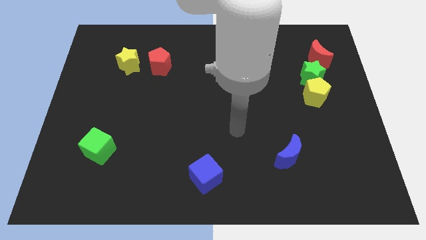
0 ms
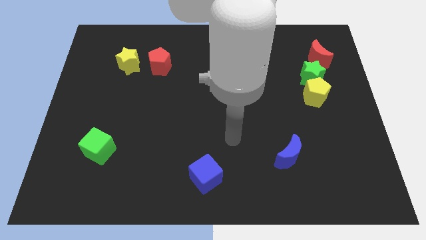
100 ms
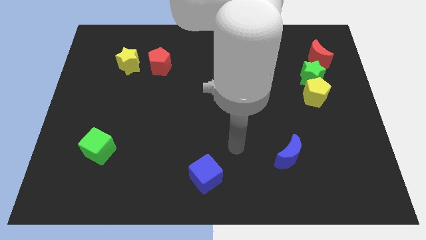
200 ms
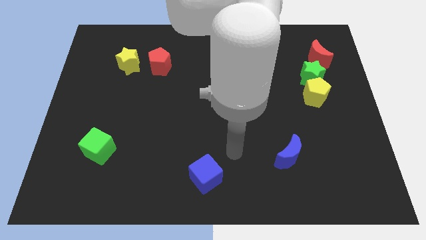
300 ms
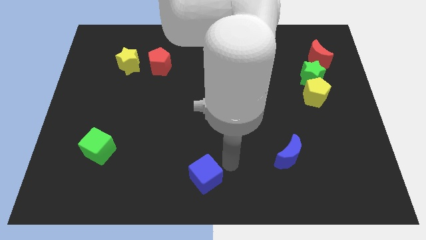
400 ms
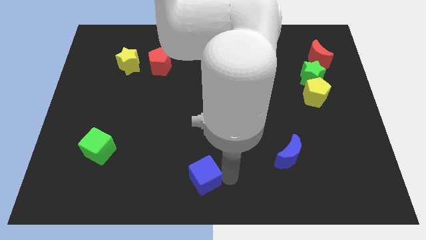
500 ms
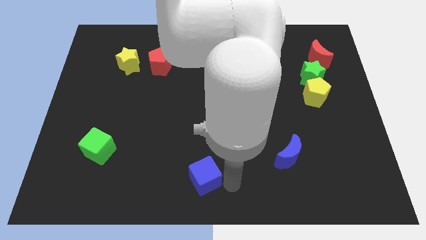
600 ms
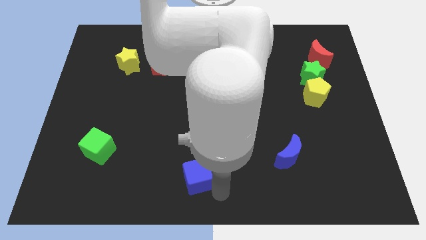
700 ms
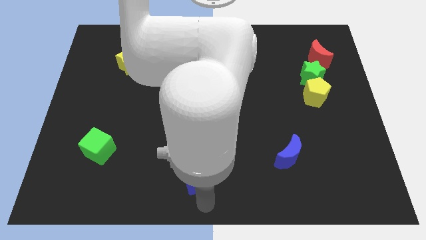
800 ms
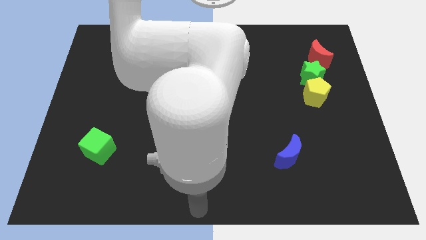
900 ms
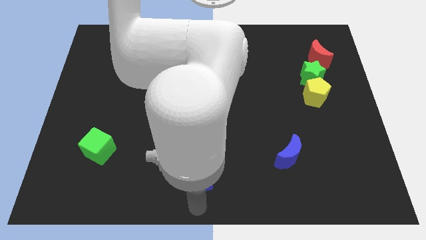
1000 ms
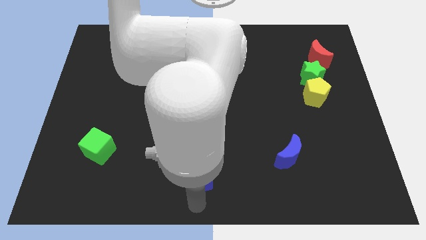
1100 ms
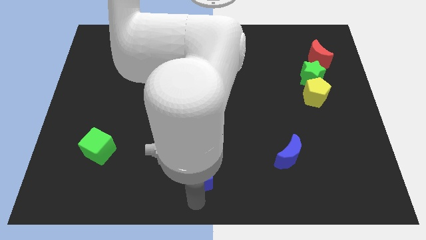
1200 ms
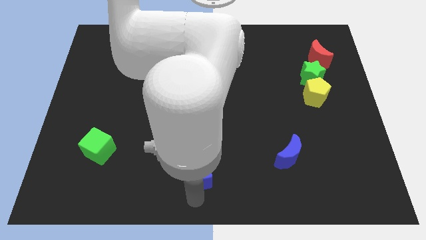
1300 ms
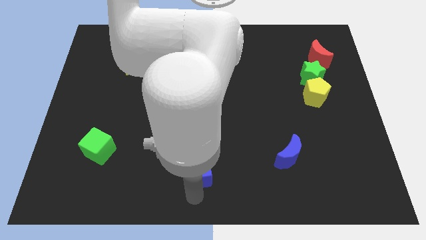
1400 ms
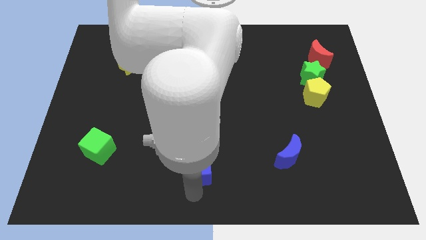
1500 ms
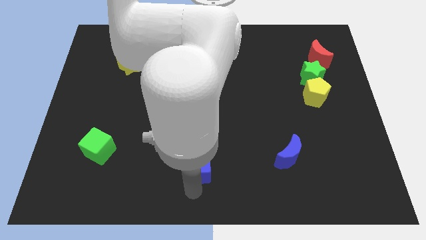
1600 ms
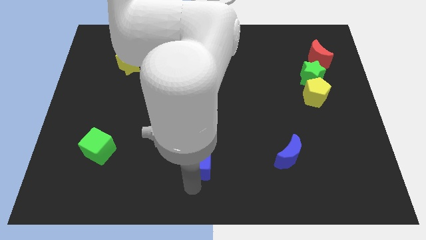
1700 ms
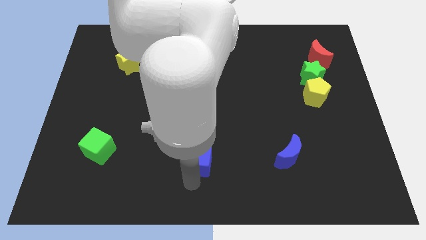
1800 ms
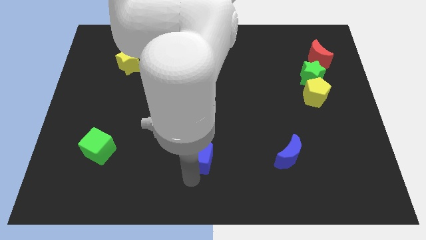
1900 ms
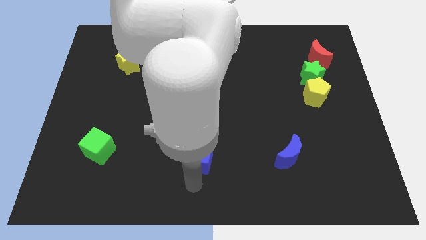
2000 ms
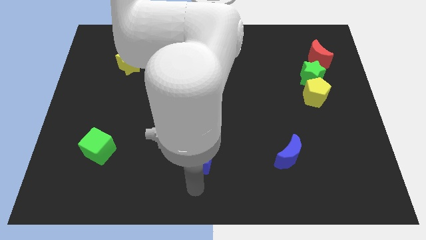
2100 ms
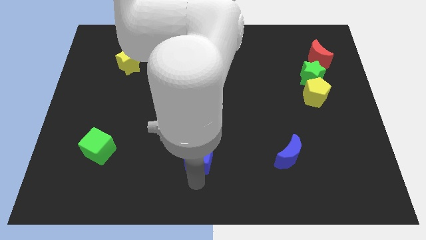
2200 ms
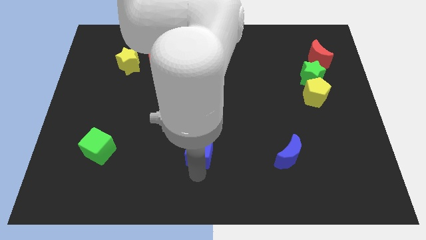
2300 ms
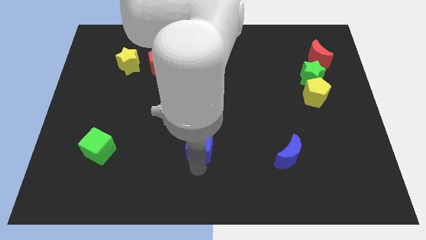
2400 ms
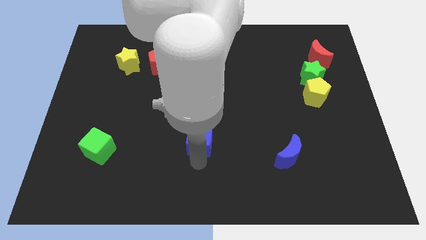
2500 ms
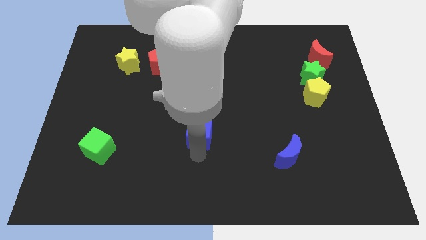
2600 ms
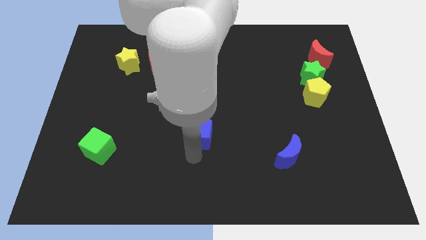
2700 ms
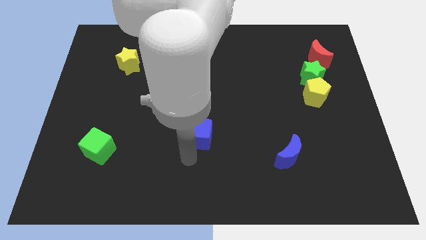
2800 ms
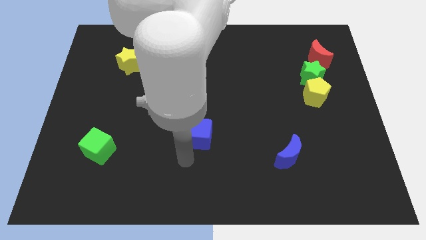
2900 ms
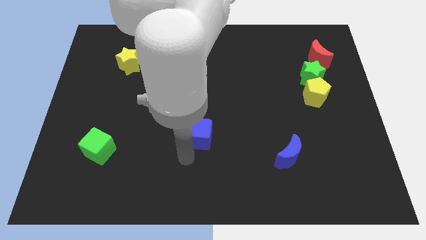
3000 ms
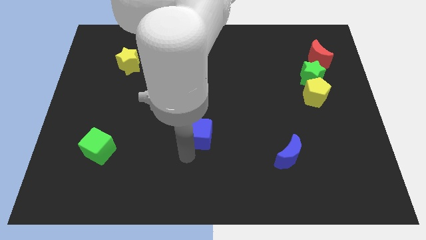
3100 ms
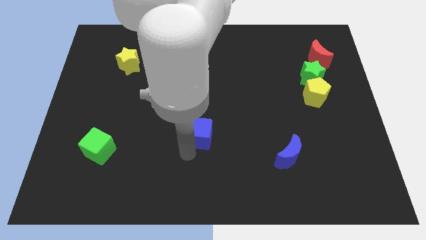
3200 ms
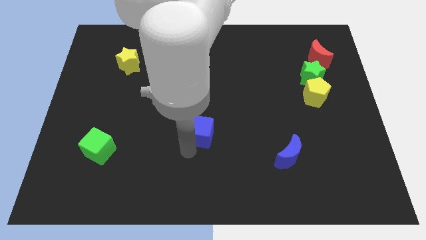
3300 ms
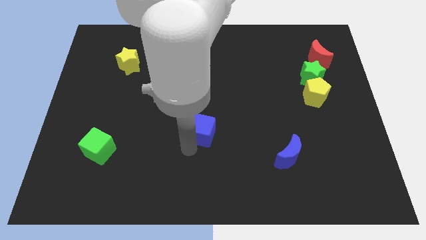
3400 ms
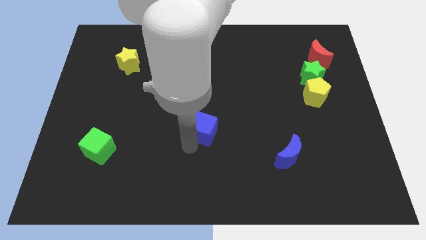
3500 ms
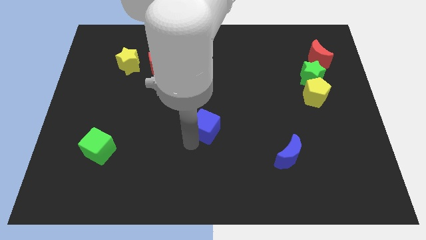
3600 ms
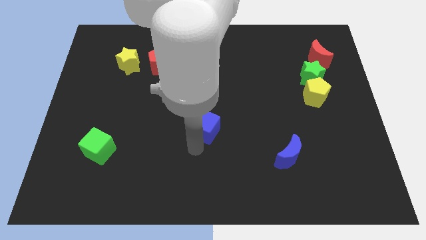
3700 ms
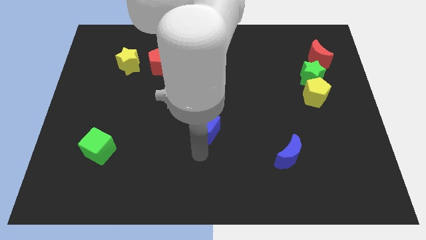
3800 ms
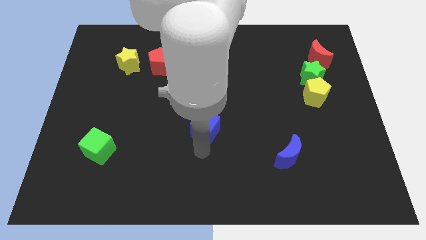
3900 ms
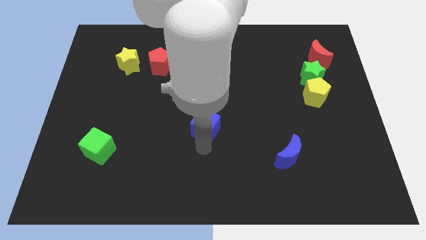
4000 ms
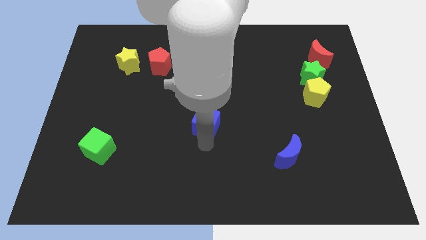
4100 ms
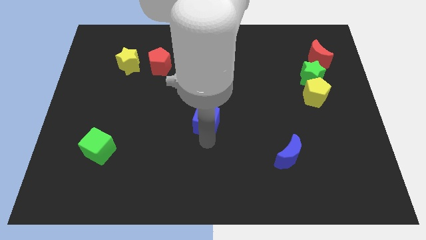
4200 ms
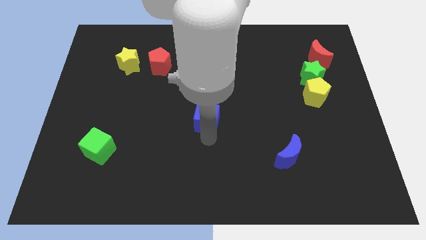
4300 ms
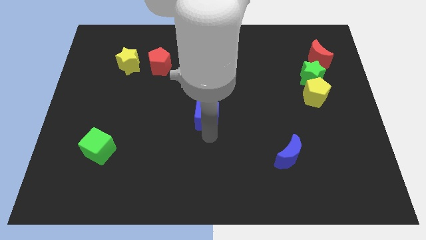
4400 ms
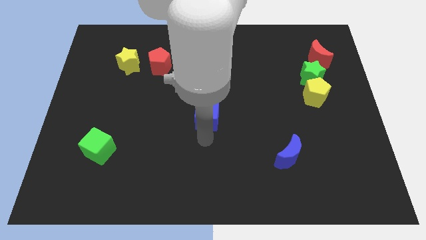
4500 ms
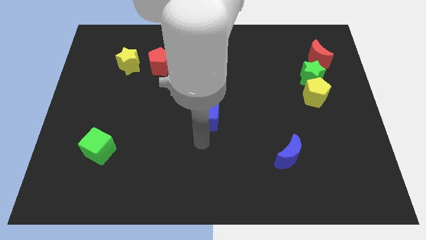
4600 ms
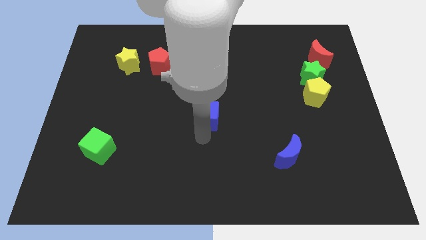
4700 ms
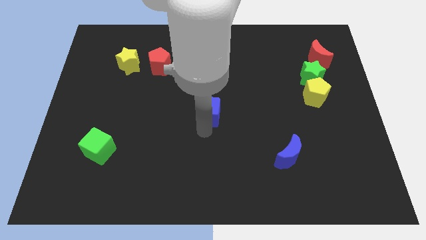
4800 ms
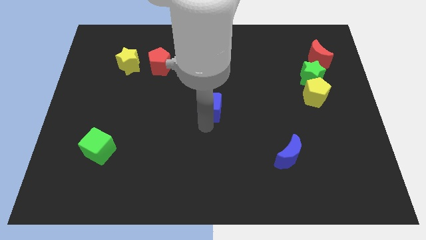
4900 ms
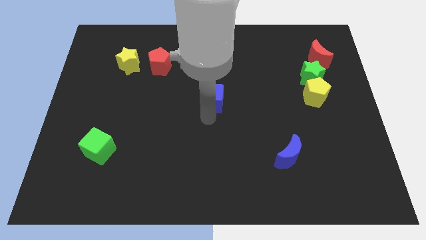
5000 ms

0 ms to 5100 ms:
slide the blue cube up

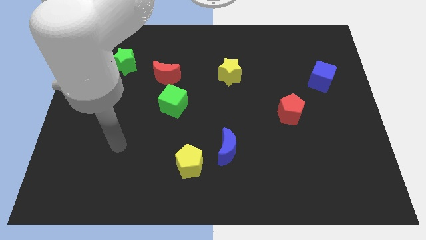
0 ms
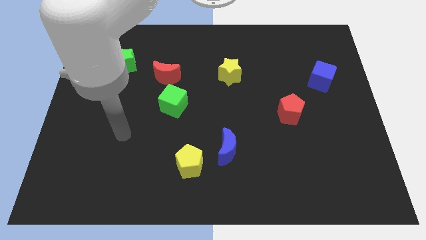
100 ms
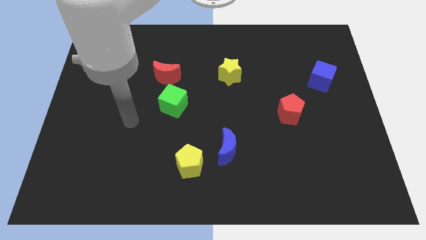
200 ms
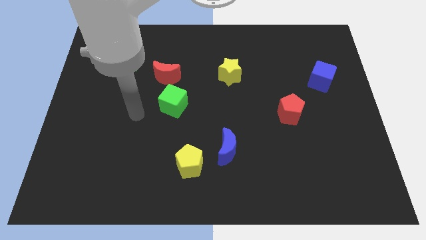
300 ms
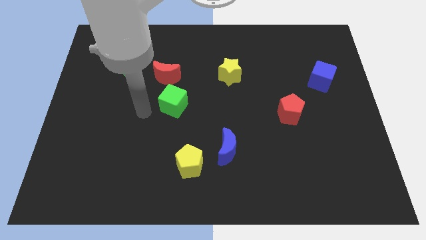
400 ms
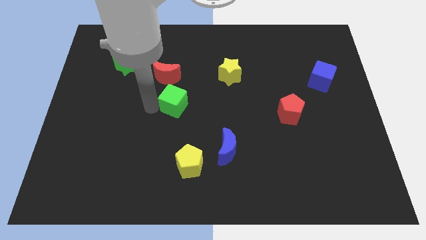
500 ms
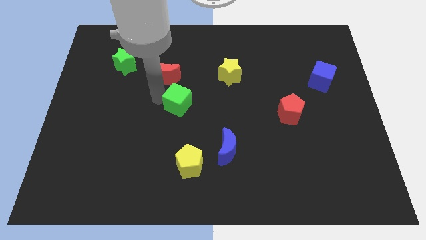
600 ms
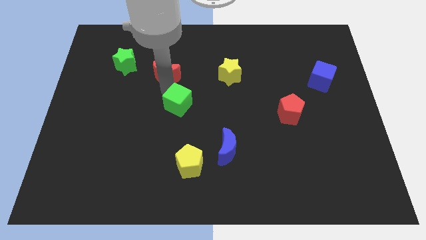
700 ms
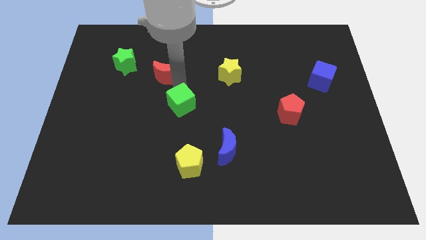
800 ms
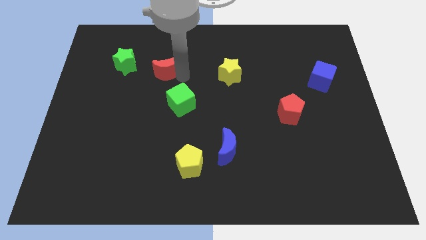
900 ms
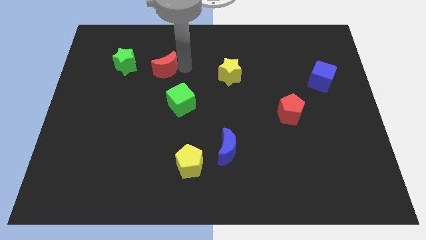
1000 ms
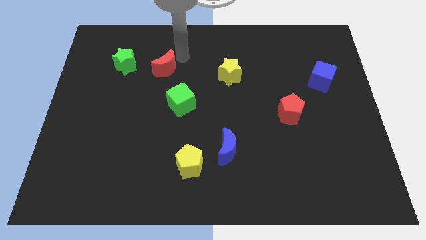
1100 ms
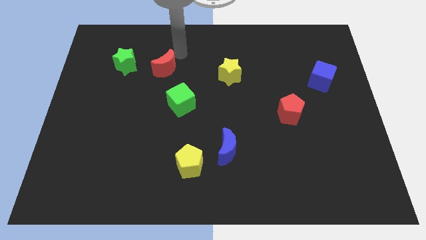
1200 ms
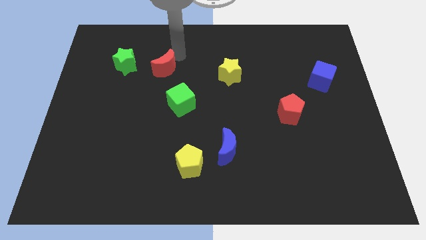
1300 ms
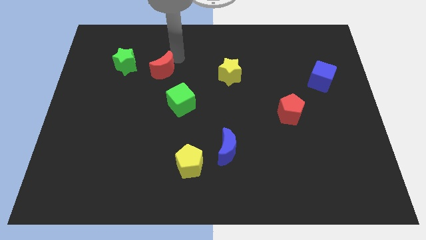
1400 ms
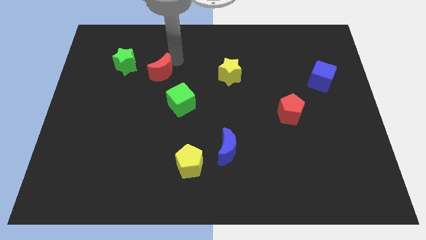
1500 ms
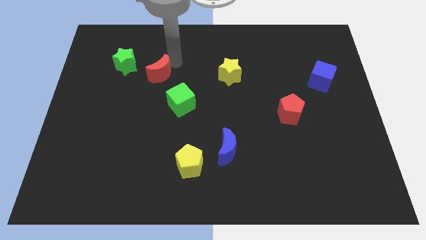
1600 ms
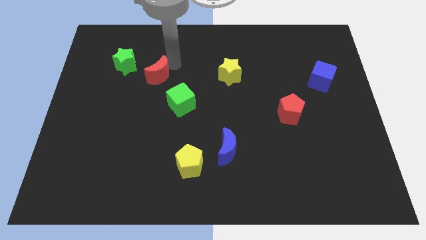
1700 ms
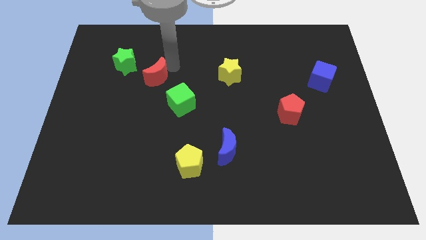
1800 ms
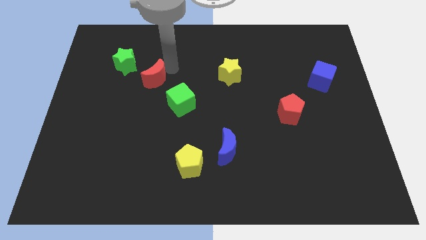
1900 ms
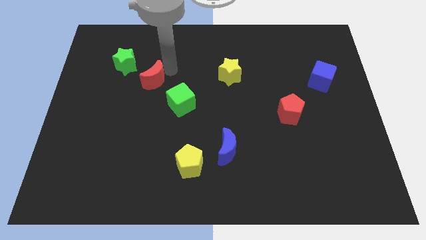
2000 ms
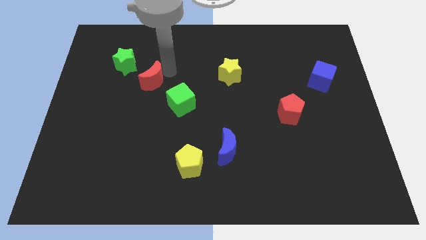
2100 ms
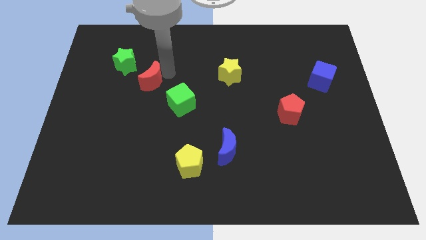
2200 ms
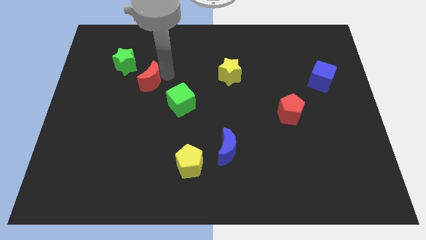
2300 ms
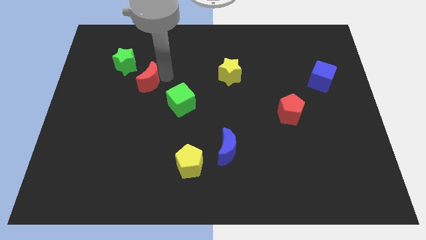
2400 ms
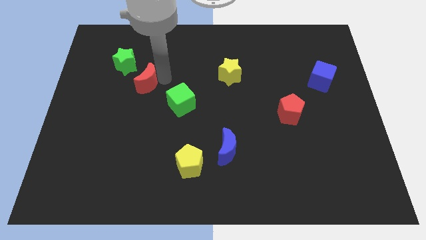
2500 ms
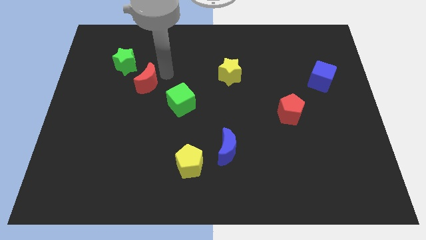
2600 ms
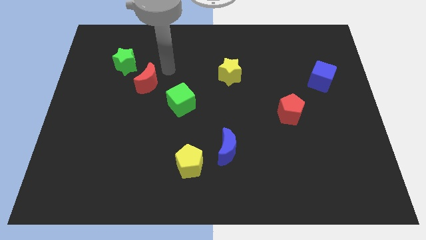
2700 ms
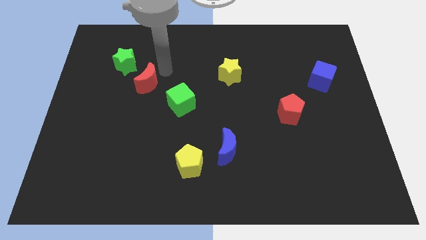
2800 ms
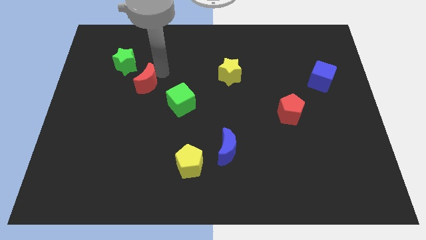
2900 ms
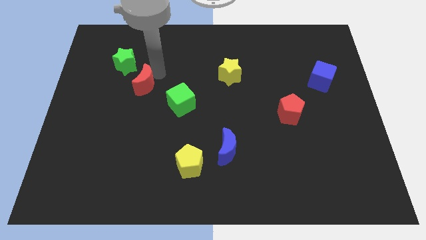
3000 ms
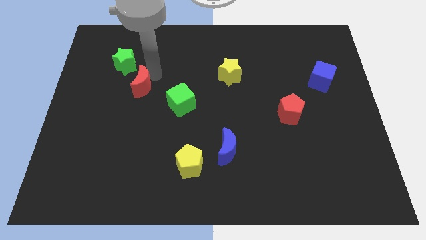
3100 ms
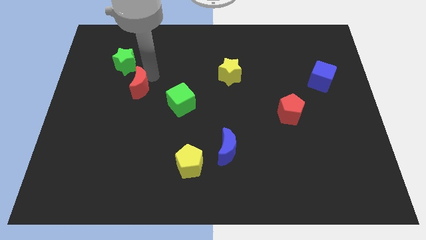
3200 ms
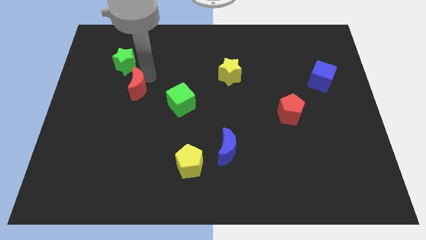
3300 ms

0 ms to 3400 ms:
slightly slide the red moon downwards and to the left
